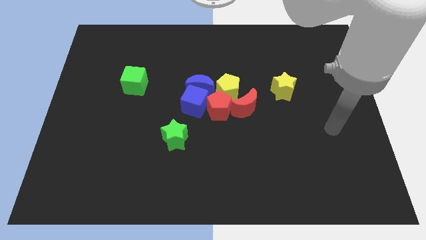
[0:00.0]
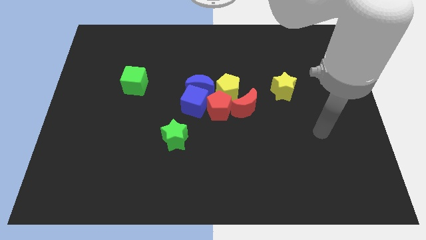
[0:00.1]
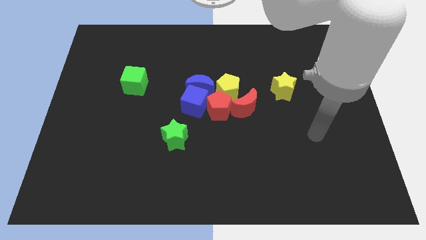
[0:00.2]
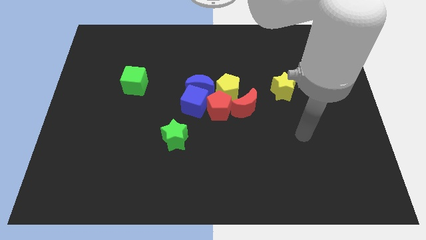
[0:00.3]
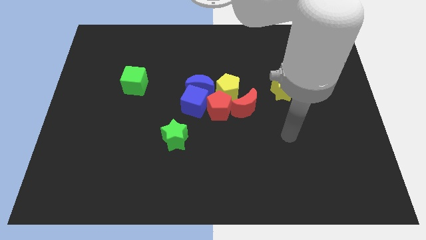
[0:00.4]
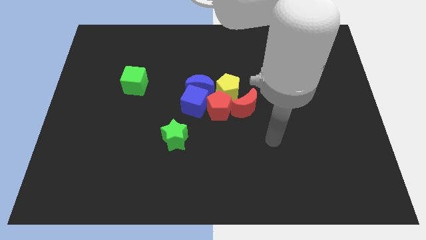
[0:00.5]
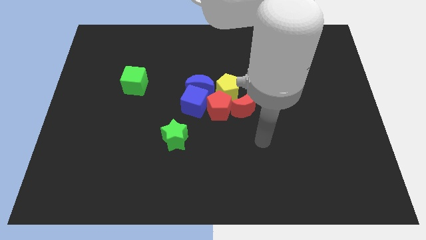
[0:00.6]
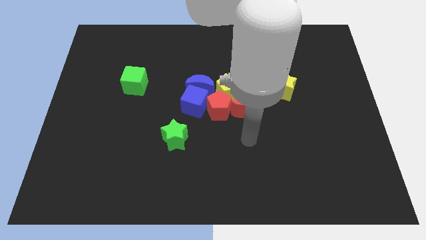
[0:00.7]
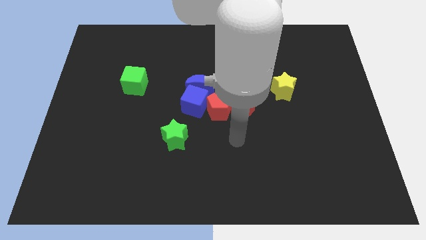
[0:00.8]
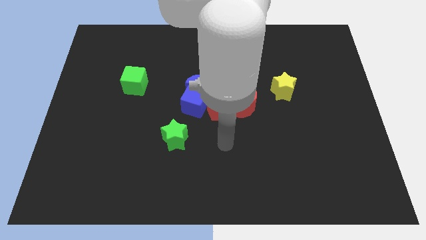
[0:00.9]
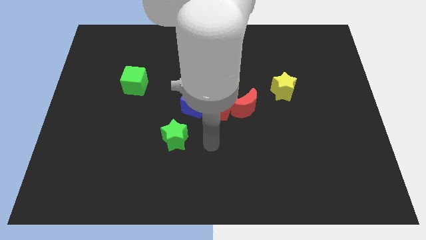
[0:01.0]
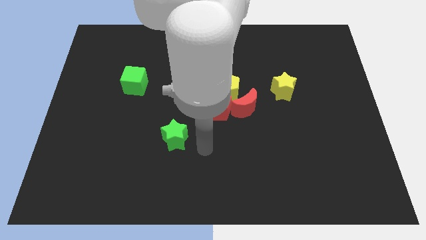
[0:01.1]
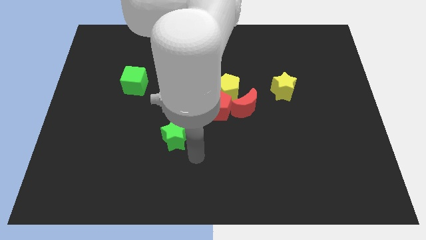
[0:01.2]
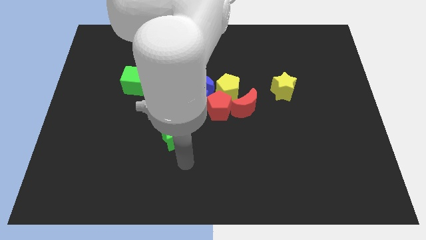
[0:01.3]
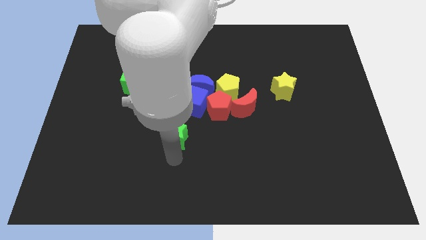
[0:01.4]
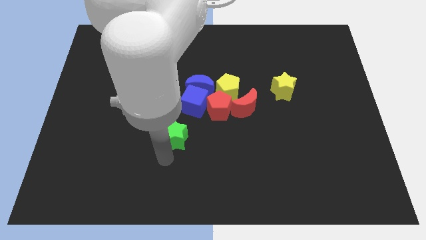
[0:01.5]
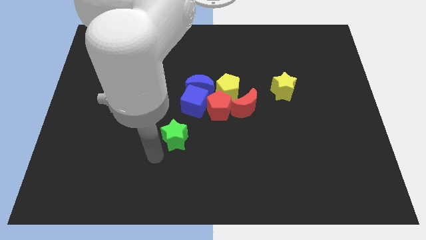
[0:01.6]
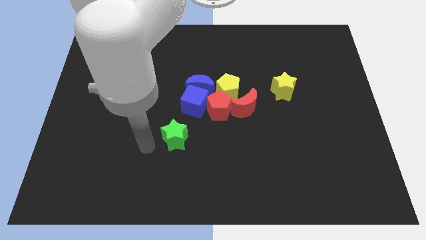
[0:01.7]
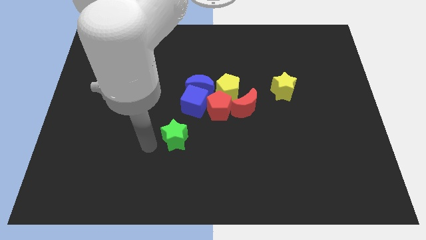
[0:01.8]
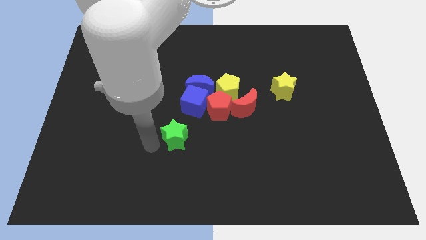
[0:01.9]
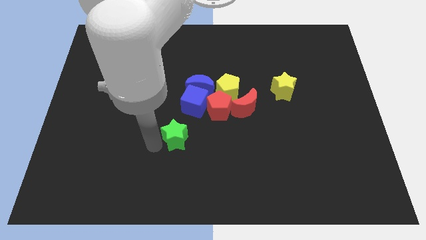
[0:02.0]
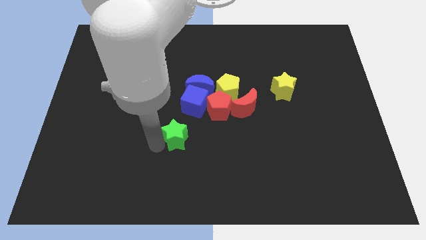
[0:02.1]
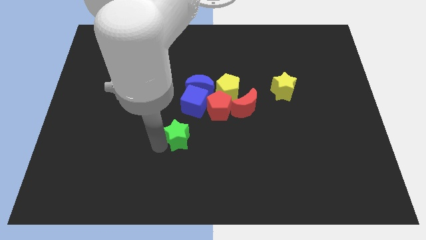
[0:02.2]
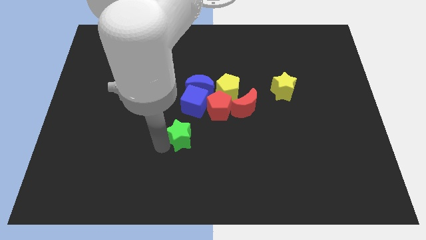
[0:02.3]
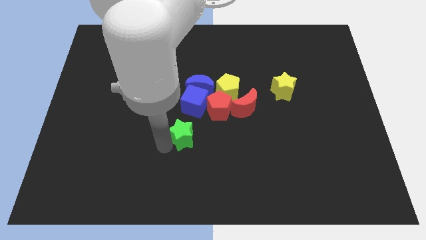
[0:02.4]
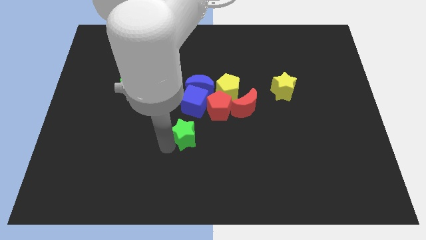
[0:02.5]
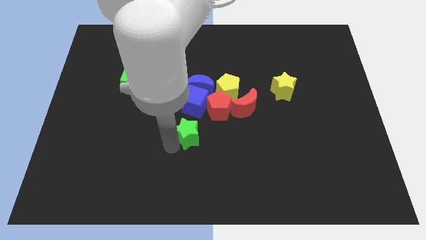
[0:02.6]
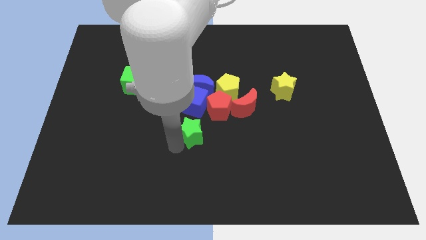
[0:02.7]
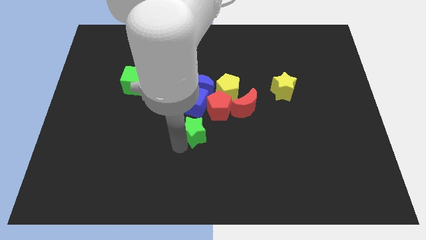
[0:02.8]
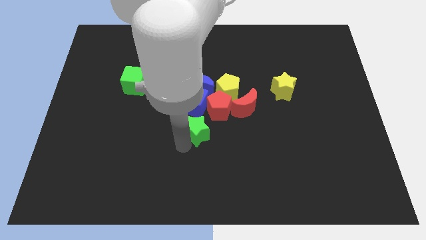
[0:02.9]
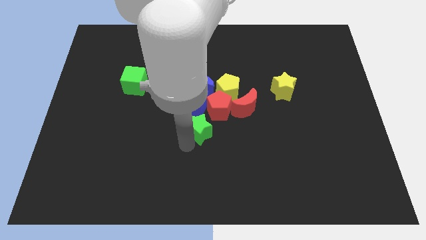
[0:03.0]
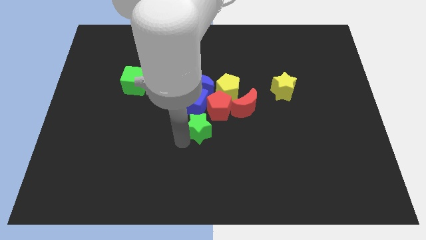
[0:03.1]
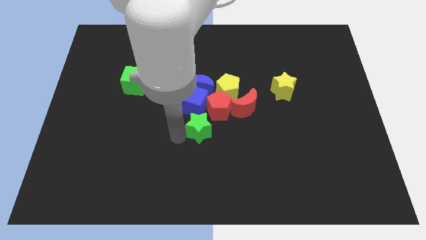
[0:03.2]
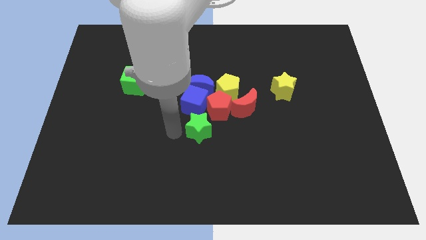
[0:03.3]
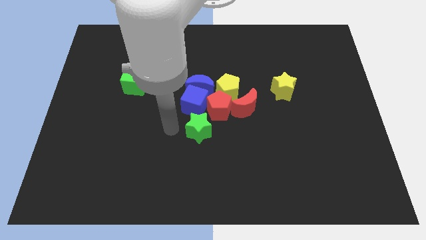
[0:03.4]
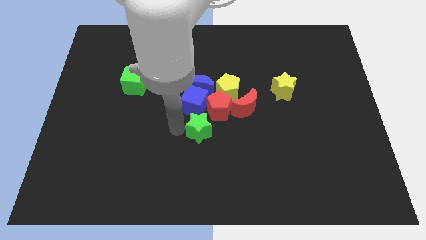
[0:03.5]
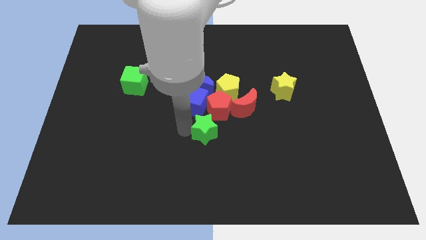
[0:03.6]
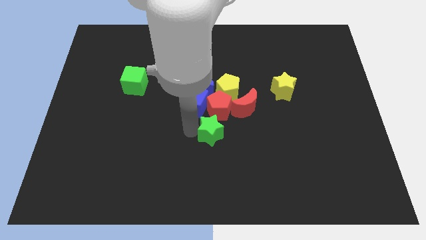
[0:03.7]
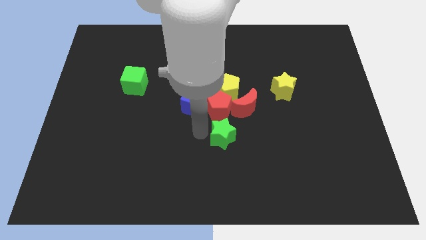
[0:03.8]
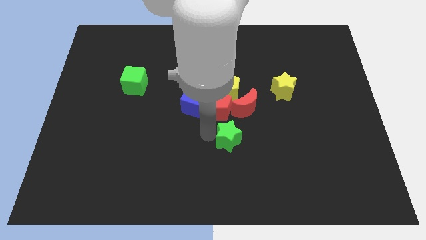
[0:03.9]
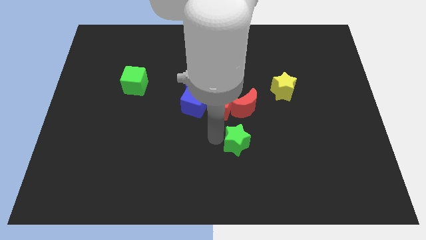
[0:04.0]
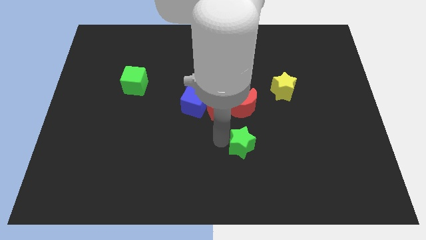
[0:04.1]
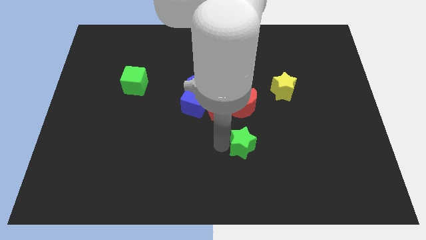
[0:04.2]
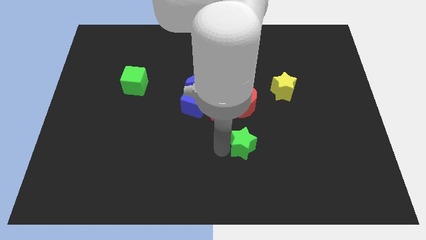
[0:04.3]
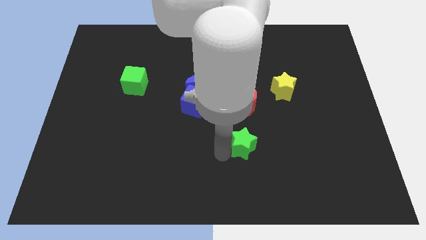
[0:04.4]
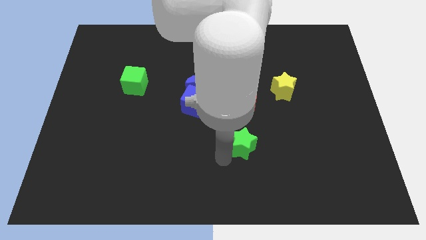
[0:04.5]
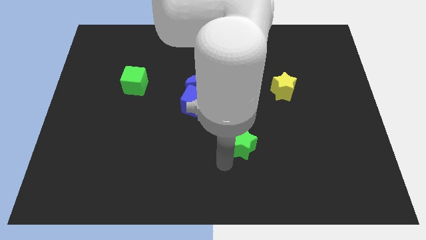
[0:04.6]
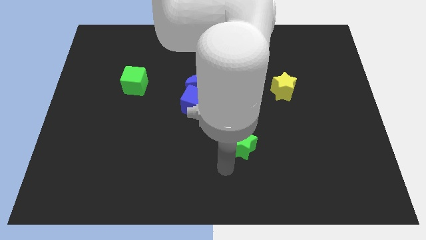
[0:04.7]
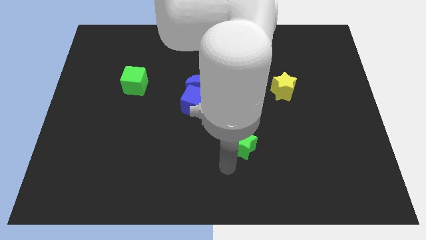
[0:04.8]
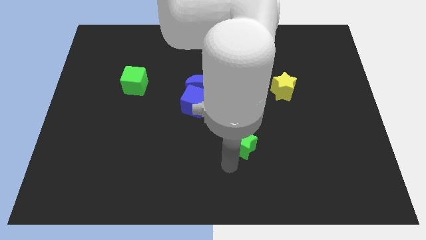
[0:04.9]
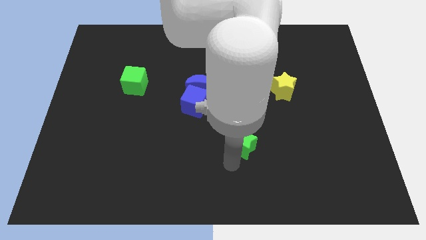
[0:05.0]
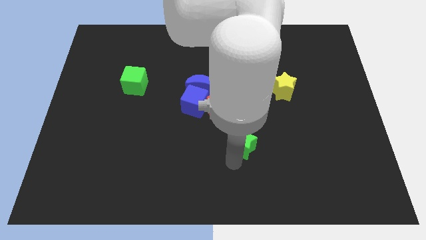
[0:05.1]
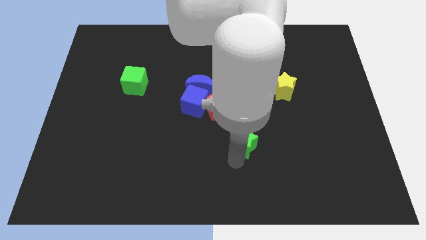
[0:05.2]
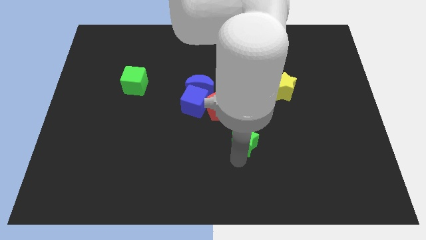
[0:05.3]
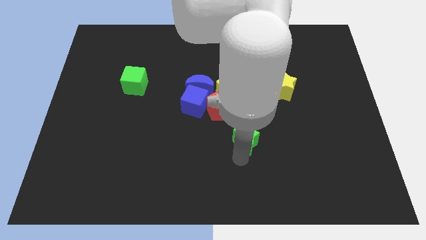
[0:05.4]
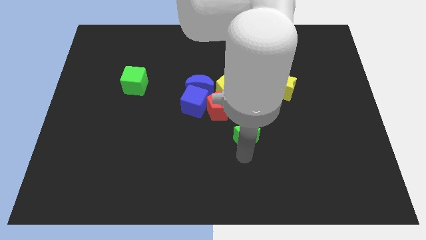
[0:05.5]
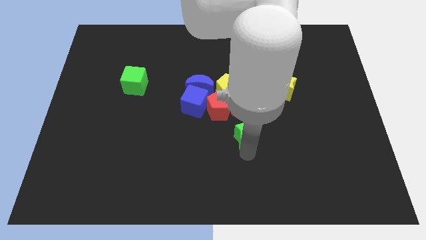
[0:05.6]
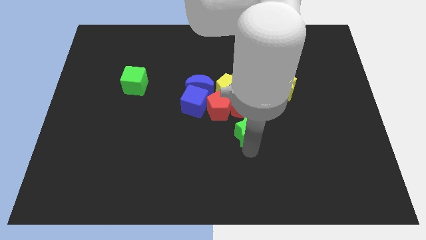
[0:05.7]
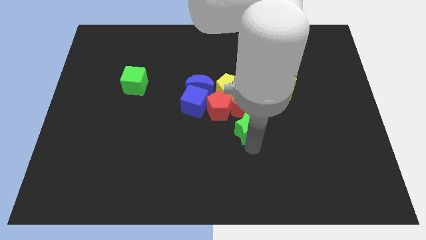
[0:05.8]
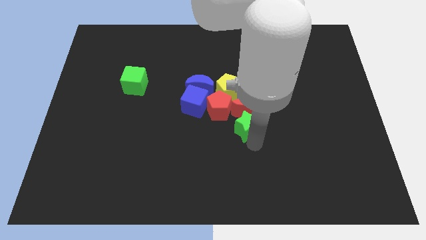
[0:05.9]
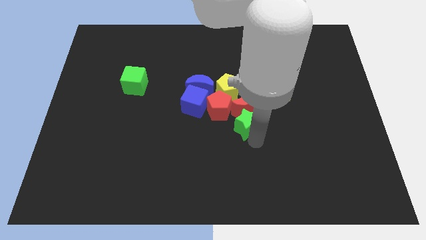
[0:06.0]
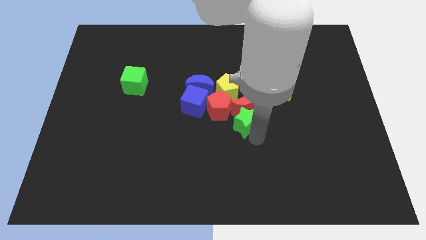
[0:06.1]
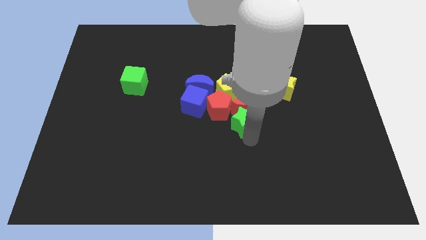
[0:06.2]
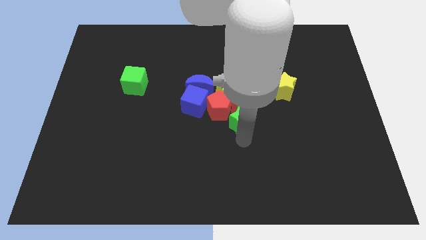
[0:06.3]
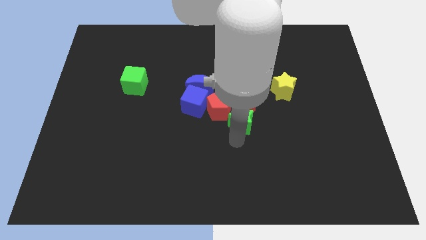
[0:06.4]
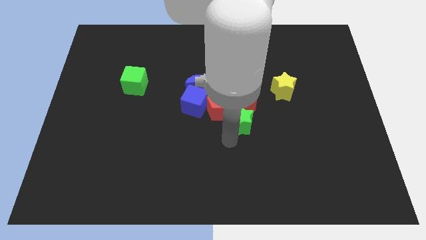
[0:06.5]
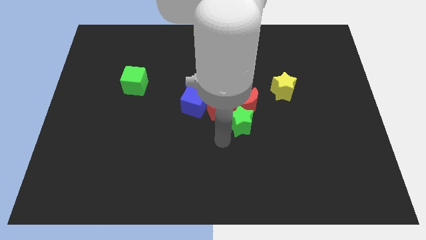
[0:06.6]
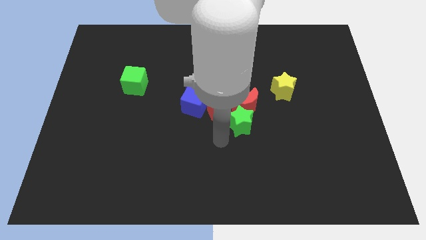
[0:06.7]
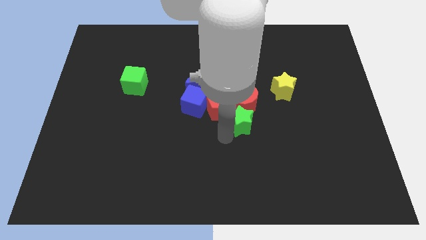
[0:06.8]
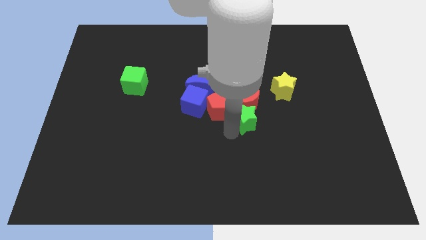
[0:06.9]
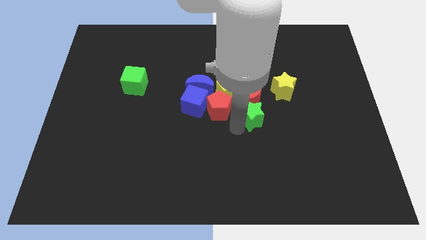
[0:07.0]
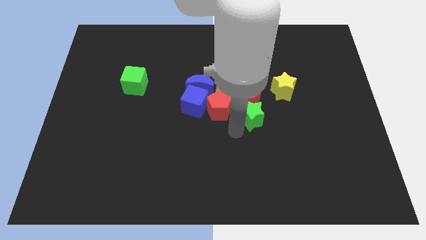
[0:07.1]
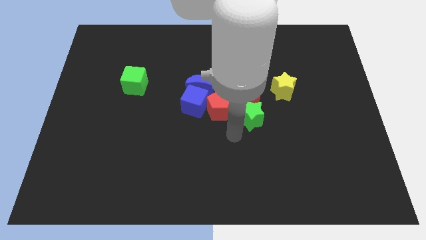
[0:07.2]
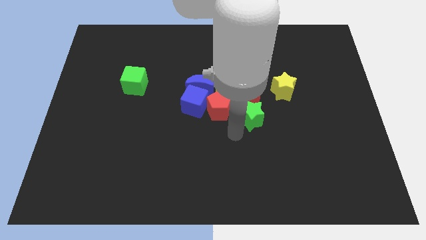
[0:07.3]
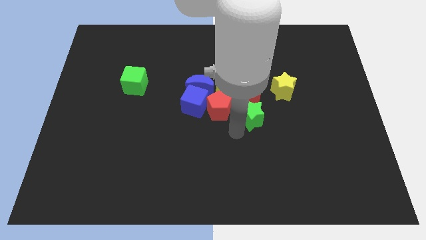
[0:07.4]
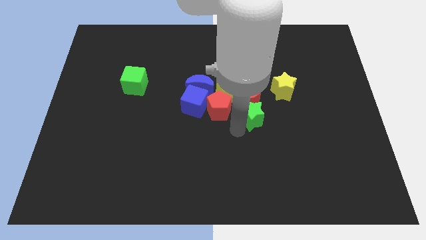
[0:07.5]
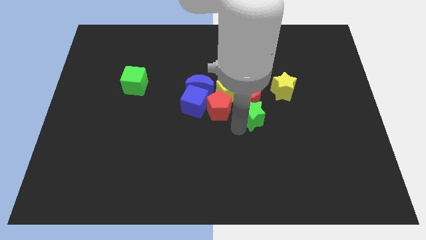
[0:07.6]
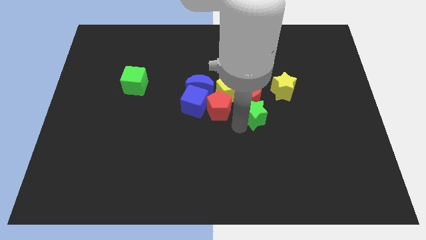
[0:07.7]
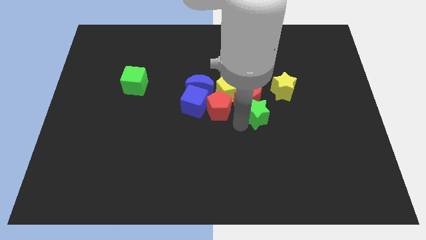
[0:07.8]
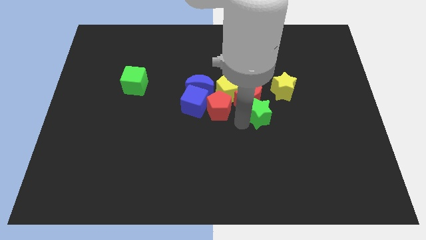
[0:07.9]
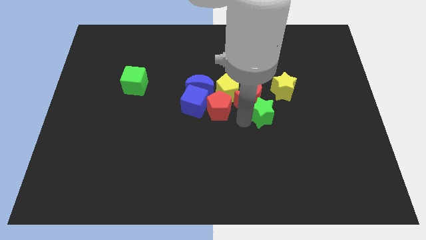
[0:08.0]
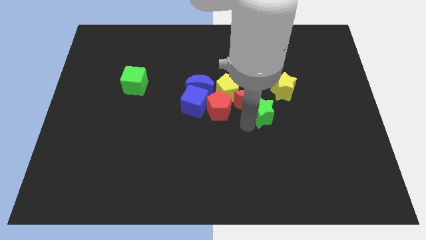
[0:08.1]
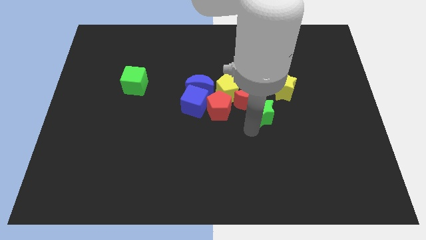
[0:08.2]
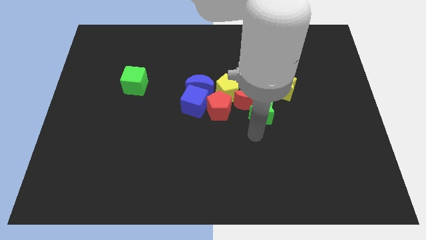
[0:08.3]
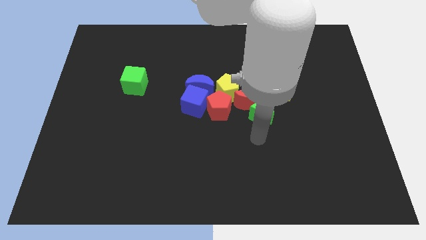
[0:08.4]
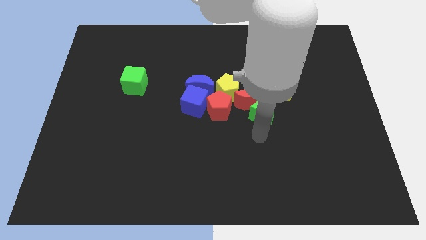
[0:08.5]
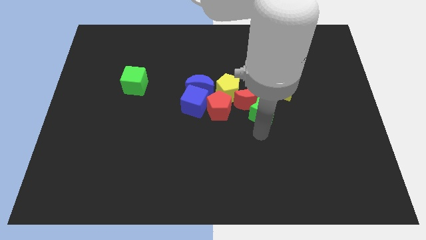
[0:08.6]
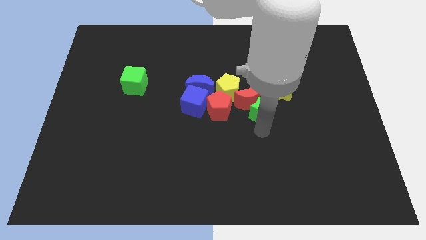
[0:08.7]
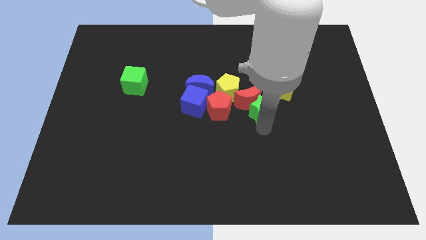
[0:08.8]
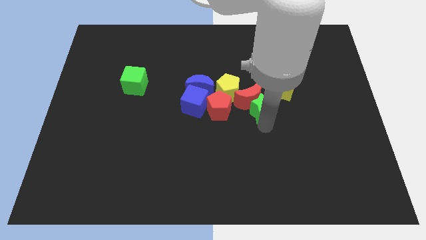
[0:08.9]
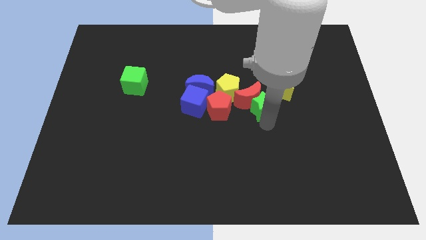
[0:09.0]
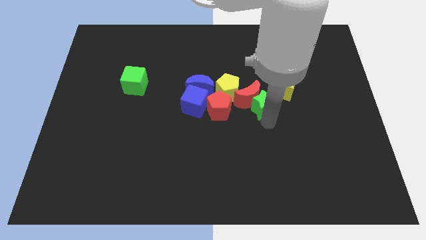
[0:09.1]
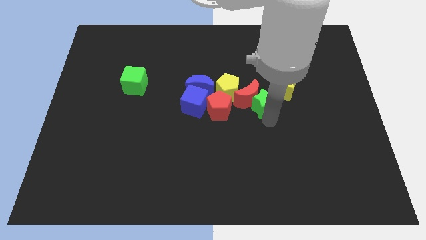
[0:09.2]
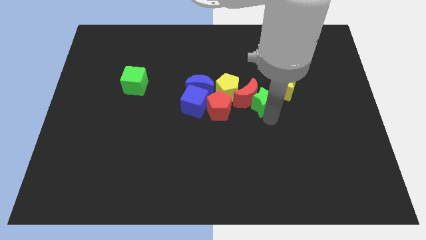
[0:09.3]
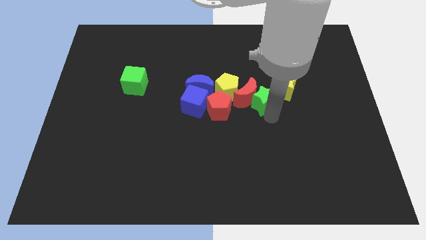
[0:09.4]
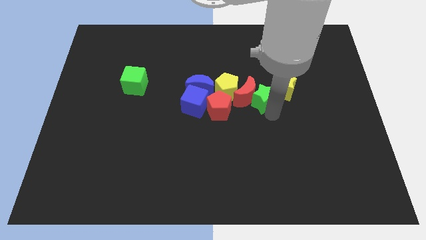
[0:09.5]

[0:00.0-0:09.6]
move the green star up and then right
